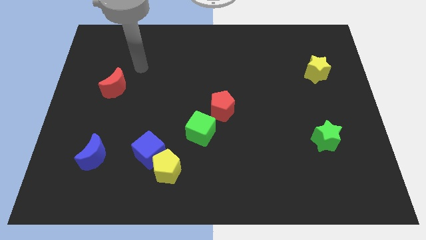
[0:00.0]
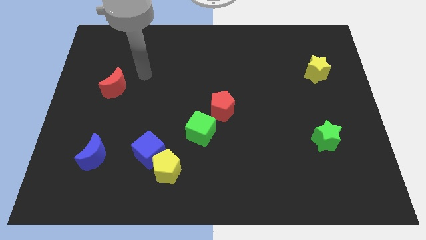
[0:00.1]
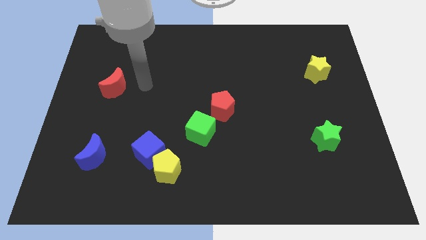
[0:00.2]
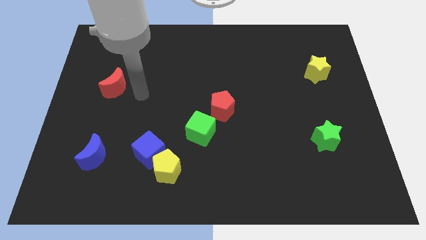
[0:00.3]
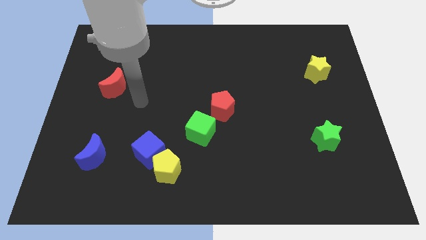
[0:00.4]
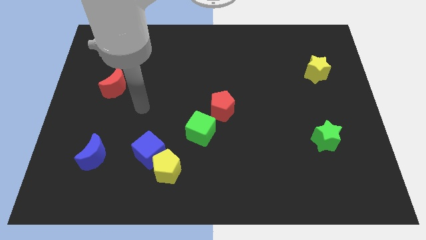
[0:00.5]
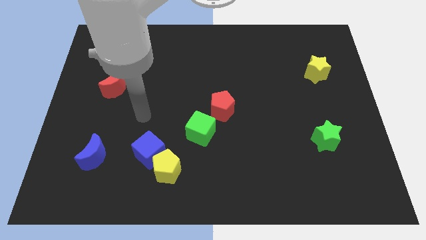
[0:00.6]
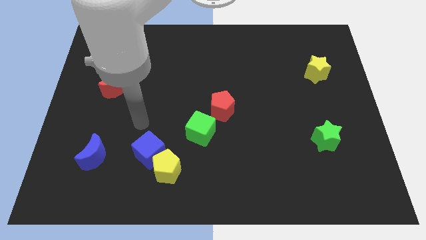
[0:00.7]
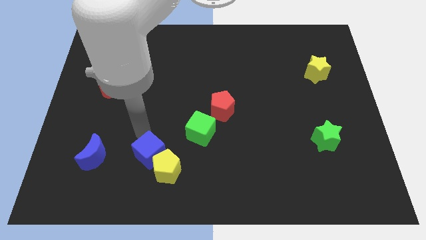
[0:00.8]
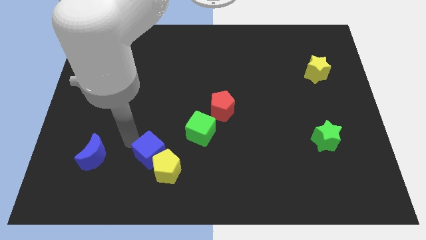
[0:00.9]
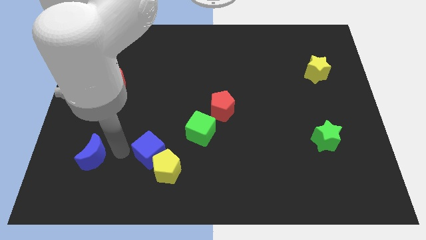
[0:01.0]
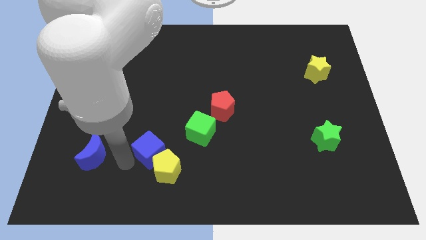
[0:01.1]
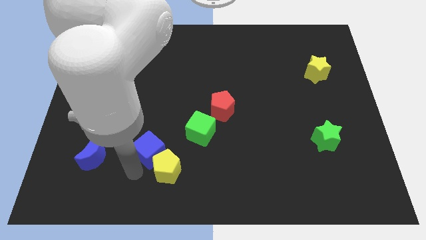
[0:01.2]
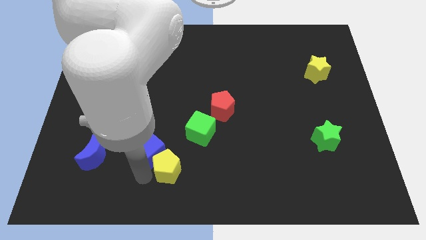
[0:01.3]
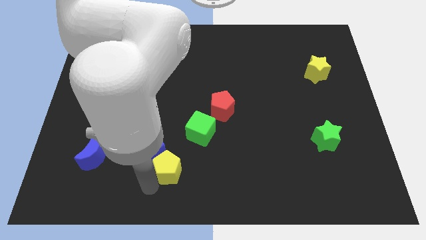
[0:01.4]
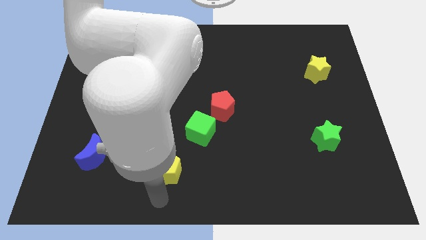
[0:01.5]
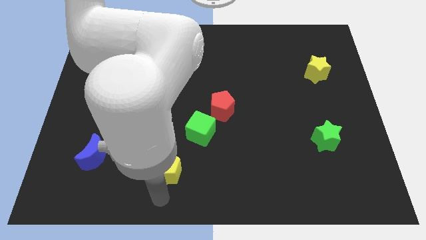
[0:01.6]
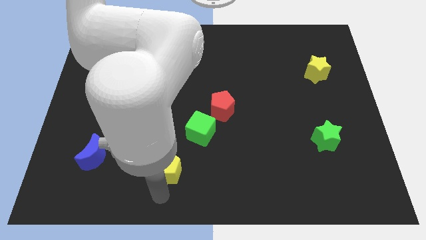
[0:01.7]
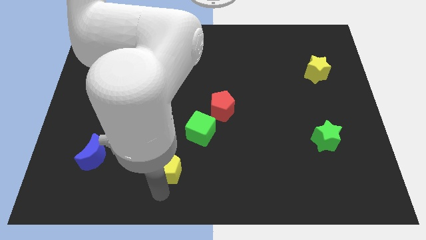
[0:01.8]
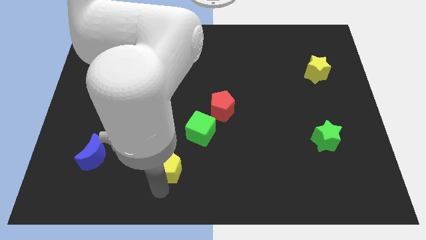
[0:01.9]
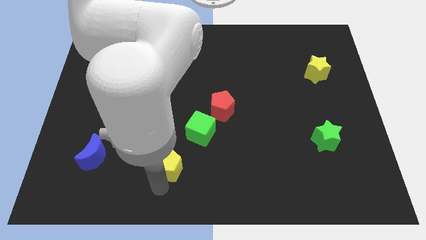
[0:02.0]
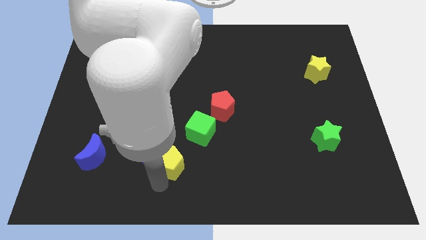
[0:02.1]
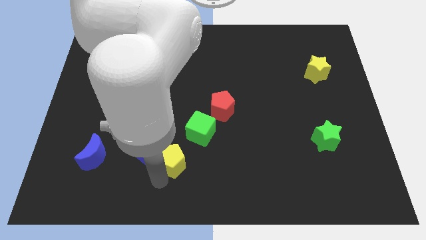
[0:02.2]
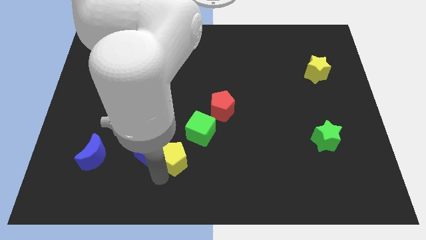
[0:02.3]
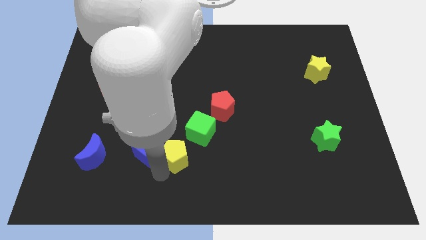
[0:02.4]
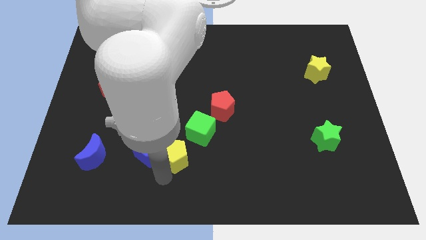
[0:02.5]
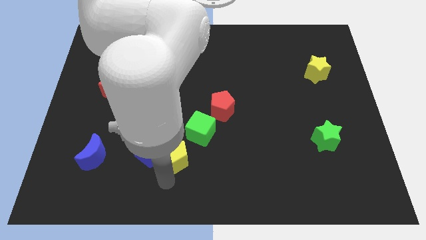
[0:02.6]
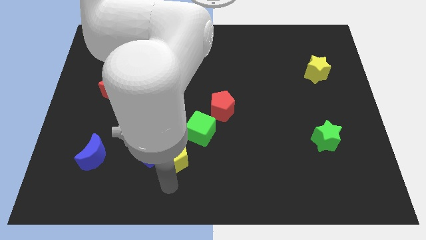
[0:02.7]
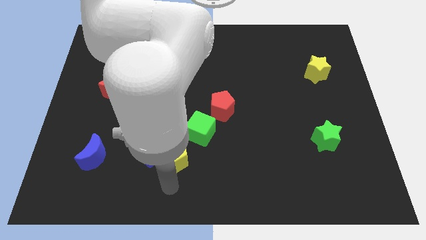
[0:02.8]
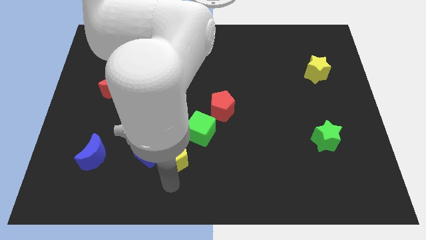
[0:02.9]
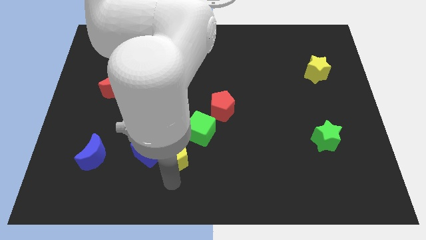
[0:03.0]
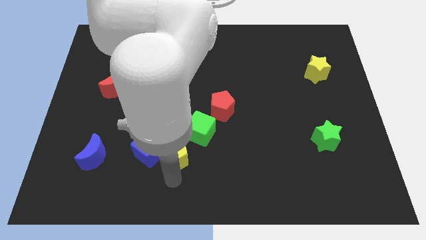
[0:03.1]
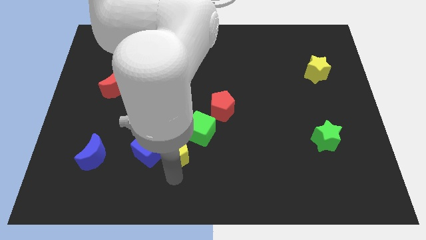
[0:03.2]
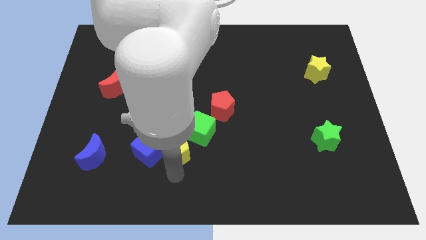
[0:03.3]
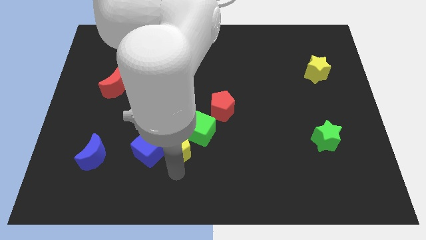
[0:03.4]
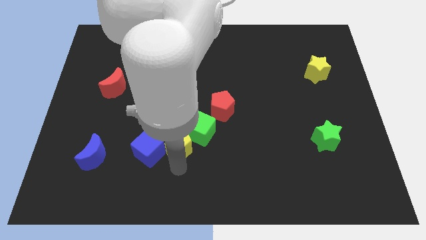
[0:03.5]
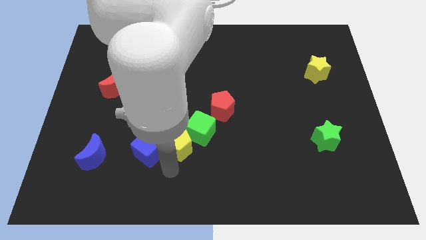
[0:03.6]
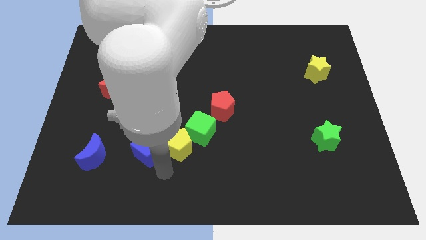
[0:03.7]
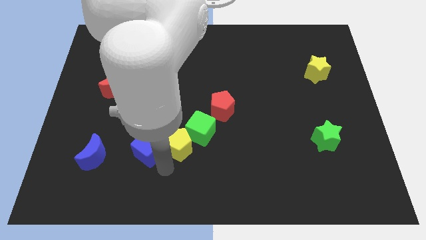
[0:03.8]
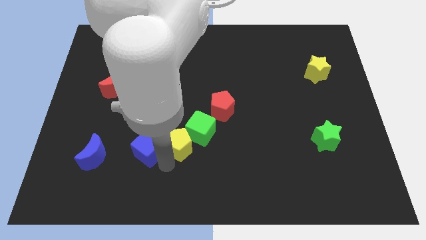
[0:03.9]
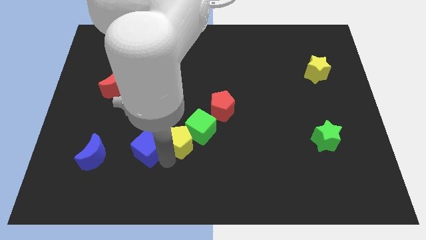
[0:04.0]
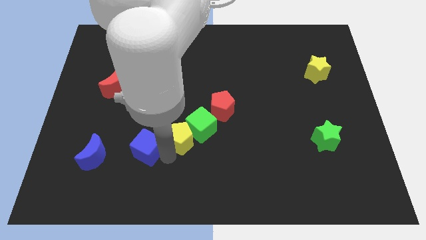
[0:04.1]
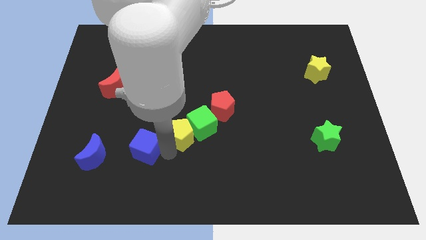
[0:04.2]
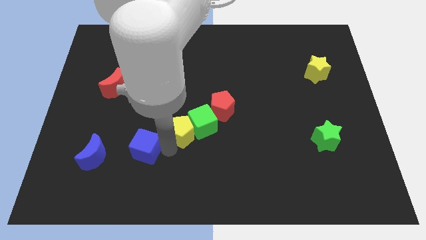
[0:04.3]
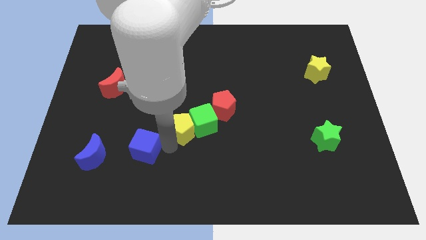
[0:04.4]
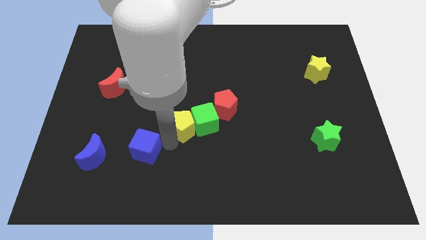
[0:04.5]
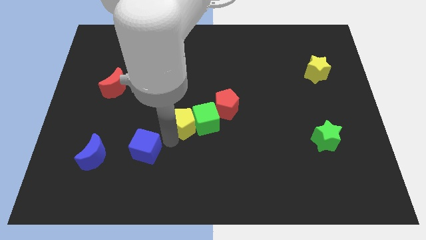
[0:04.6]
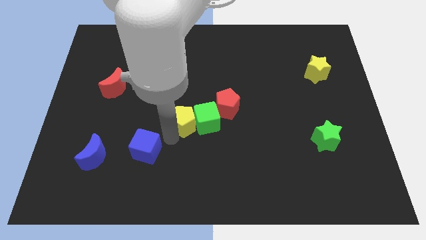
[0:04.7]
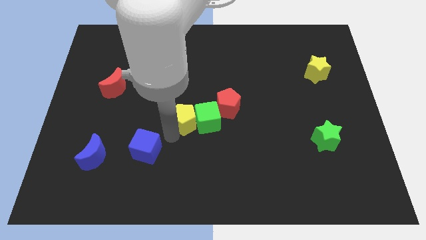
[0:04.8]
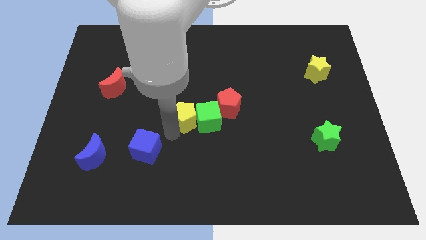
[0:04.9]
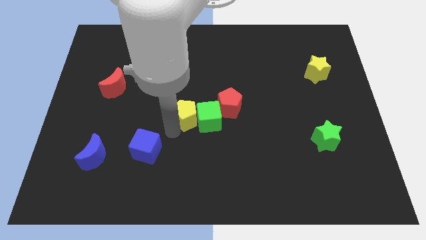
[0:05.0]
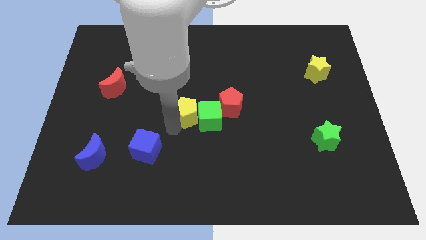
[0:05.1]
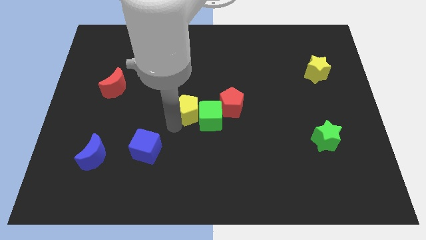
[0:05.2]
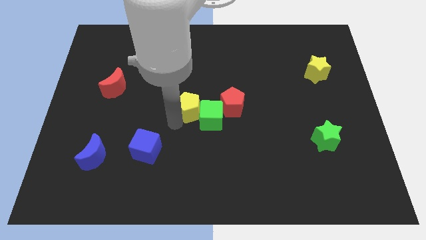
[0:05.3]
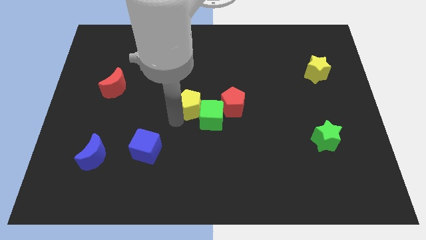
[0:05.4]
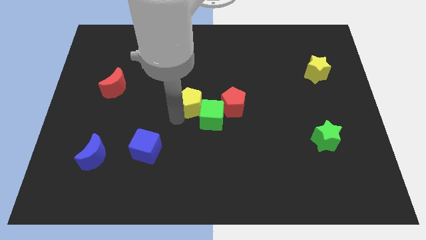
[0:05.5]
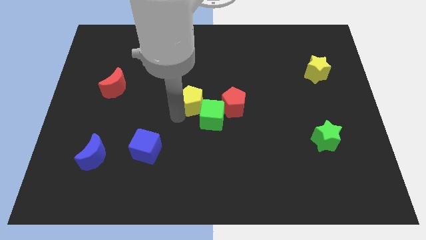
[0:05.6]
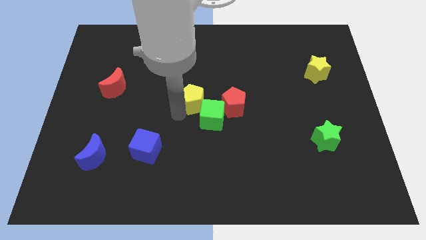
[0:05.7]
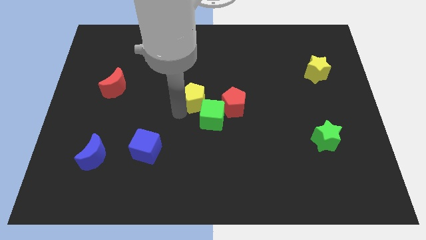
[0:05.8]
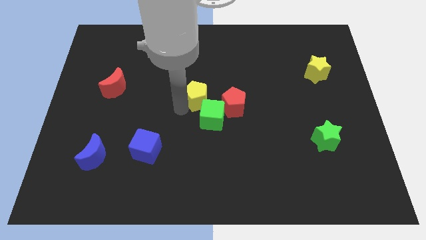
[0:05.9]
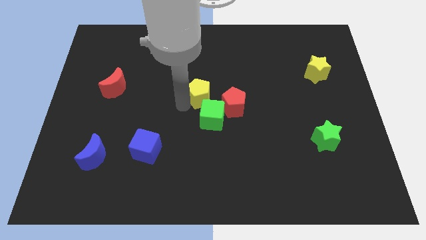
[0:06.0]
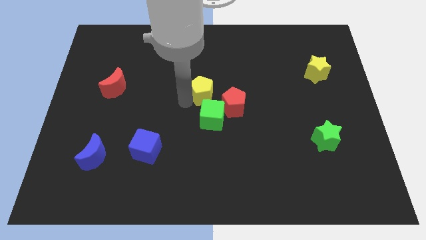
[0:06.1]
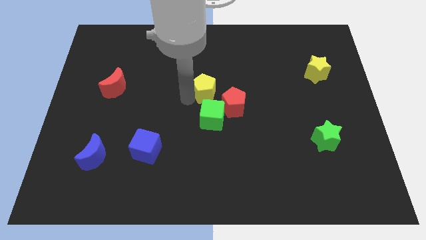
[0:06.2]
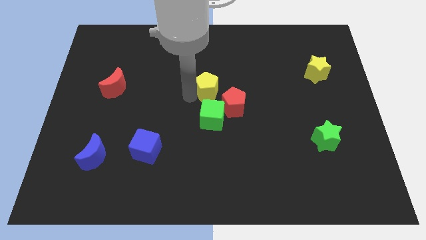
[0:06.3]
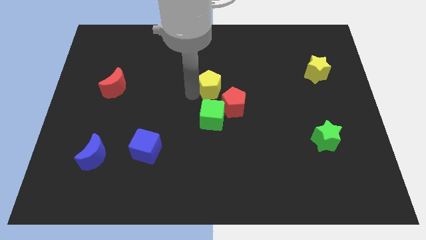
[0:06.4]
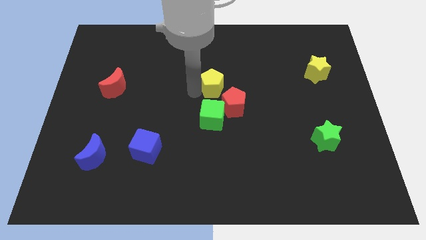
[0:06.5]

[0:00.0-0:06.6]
push the yellow pentagon to the top of the red pentagon

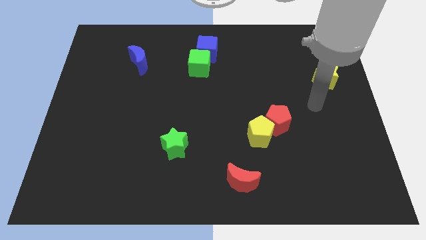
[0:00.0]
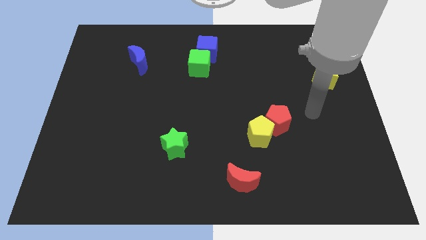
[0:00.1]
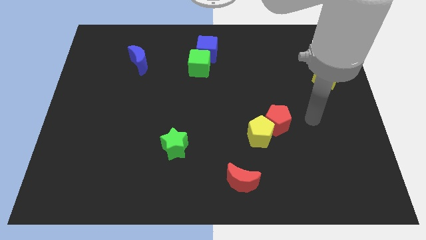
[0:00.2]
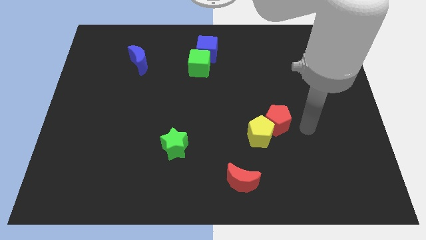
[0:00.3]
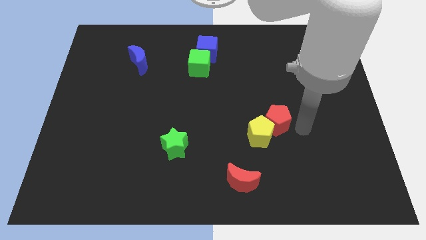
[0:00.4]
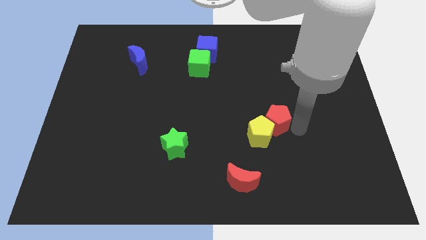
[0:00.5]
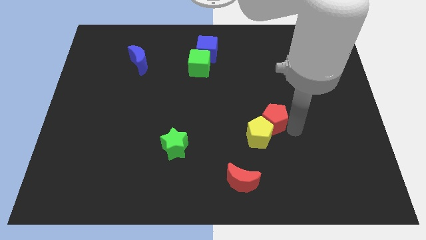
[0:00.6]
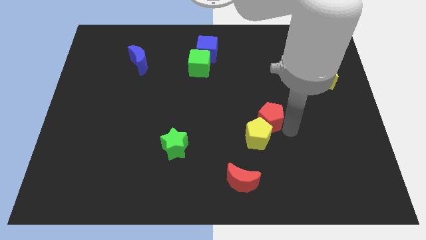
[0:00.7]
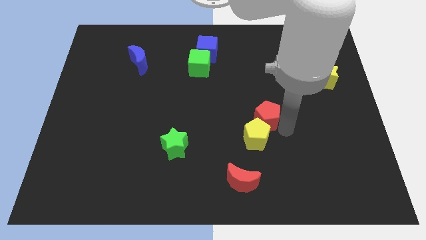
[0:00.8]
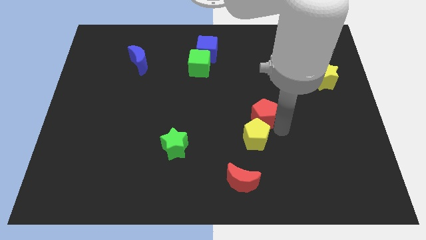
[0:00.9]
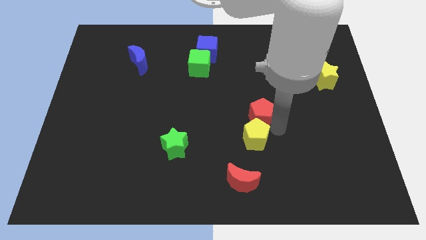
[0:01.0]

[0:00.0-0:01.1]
push the red pentagon diagonally up and to the left of the yellow pentagon
